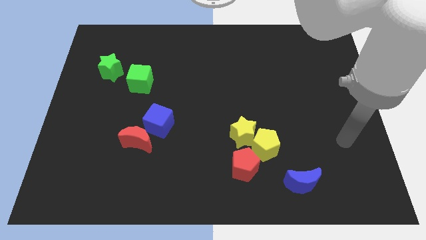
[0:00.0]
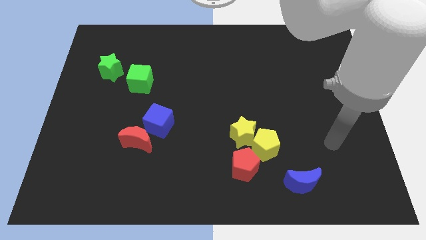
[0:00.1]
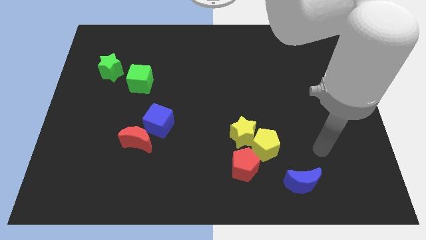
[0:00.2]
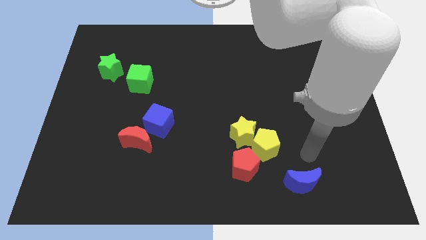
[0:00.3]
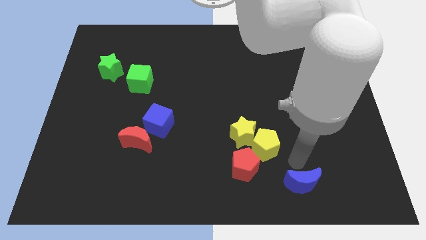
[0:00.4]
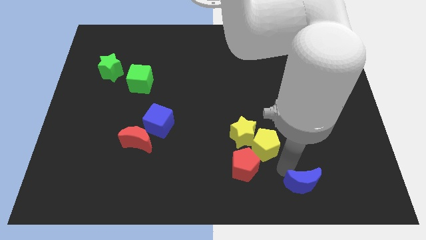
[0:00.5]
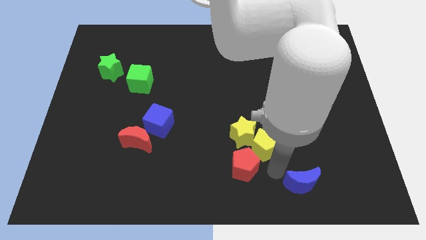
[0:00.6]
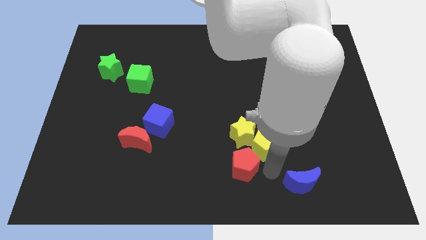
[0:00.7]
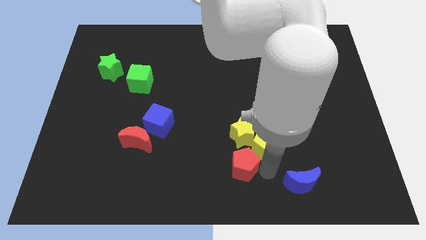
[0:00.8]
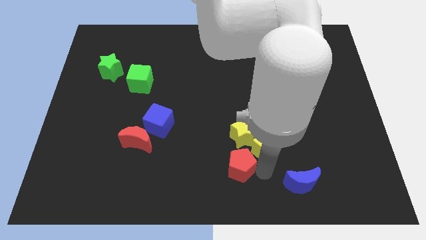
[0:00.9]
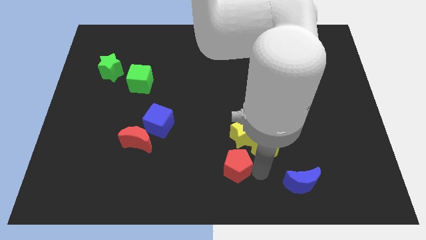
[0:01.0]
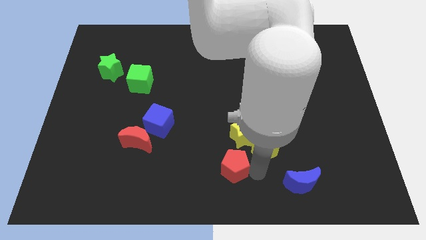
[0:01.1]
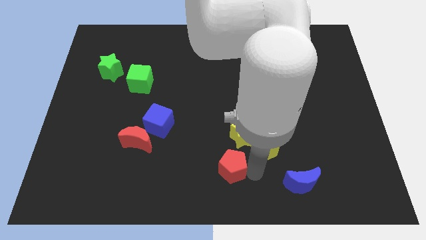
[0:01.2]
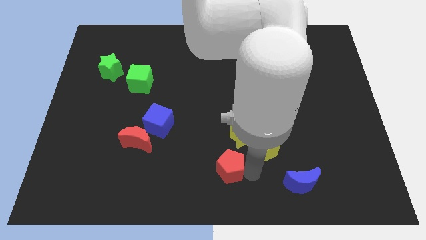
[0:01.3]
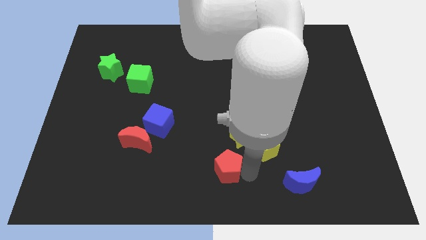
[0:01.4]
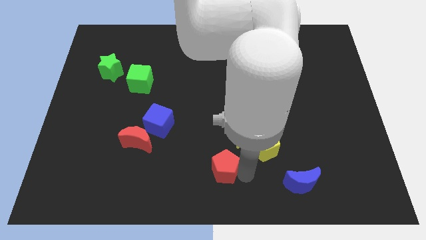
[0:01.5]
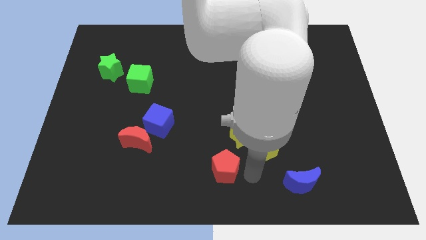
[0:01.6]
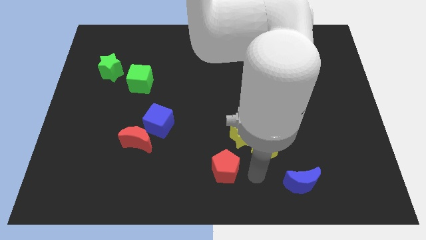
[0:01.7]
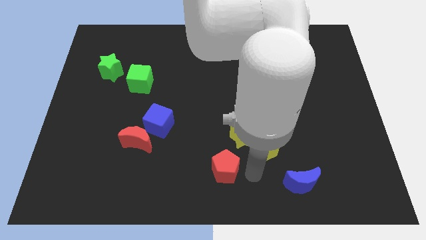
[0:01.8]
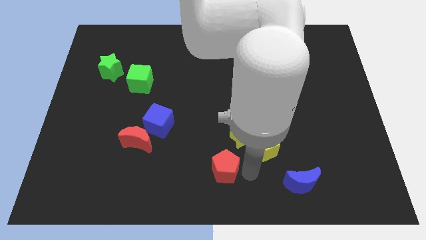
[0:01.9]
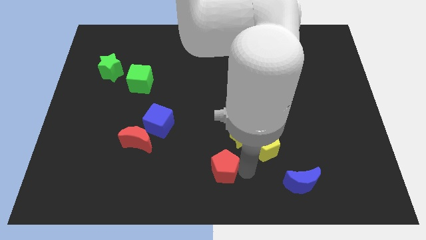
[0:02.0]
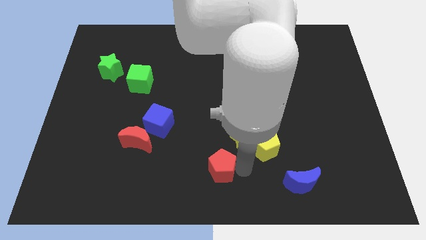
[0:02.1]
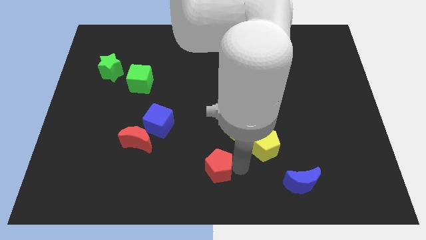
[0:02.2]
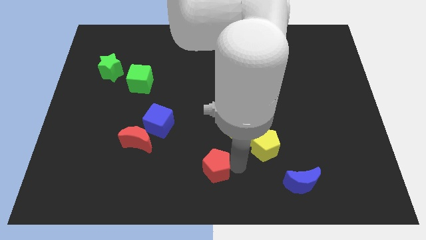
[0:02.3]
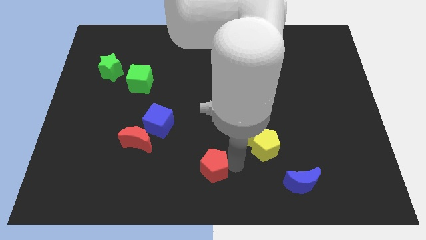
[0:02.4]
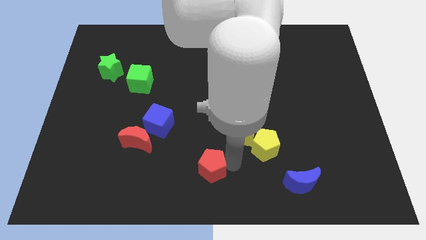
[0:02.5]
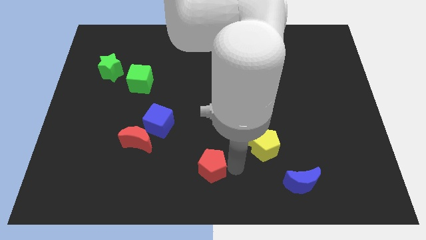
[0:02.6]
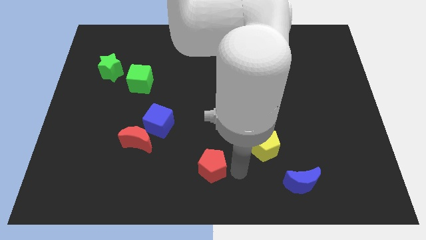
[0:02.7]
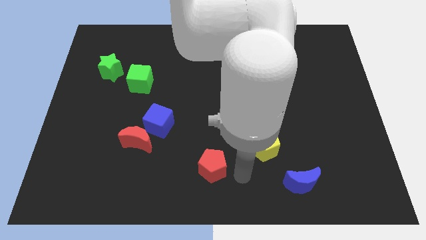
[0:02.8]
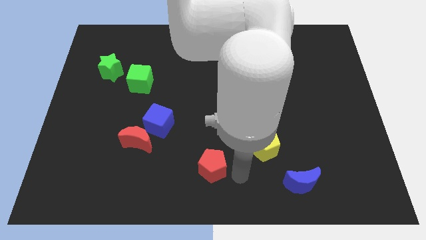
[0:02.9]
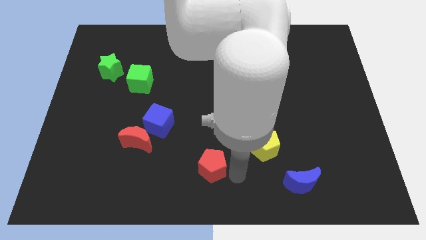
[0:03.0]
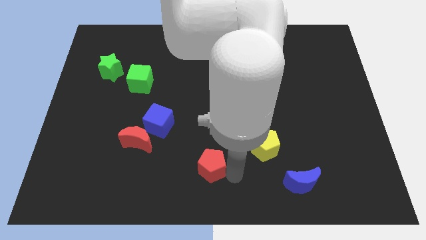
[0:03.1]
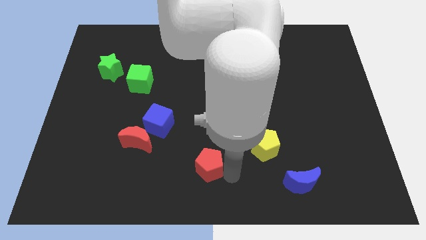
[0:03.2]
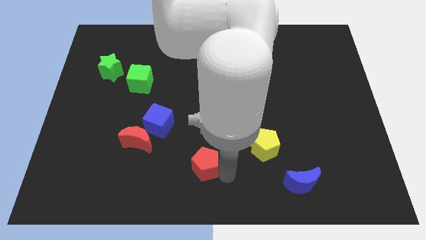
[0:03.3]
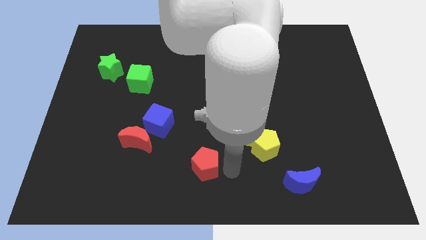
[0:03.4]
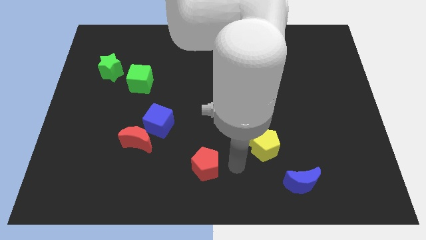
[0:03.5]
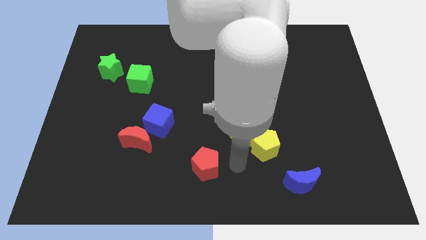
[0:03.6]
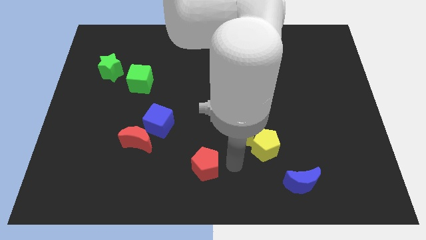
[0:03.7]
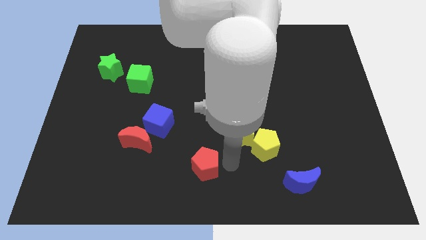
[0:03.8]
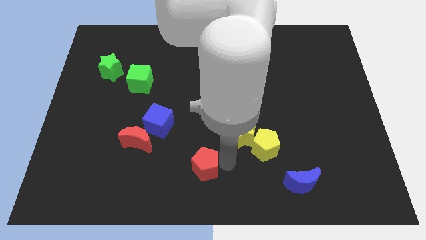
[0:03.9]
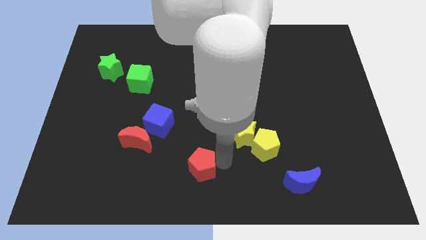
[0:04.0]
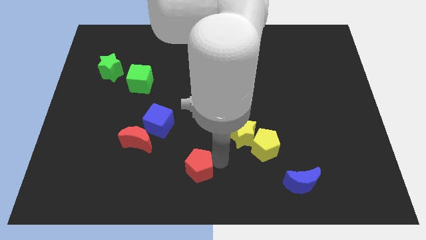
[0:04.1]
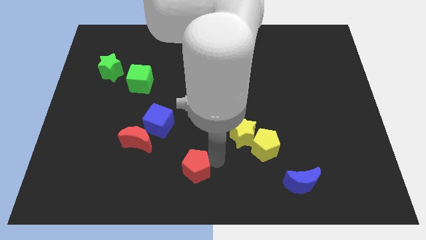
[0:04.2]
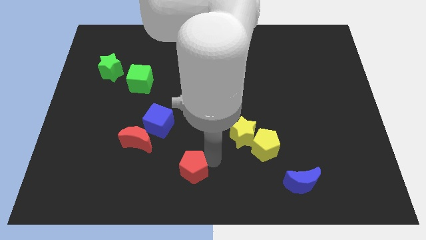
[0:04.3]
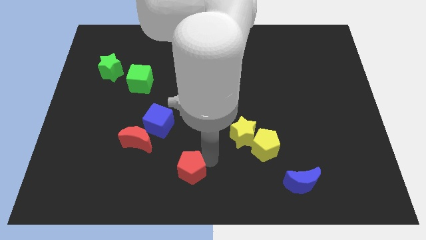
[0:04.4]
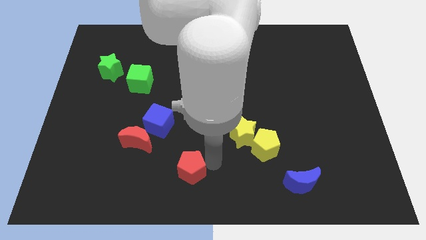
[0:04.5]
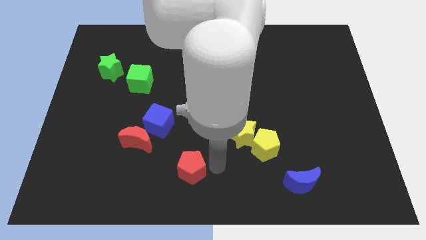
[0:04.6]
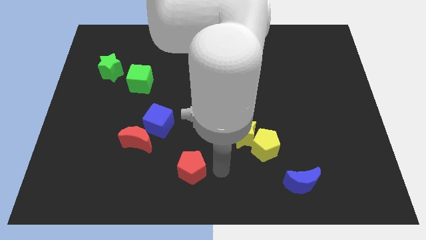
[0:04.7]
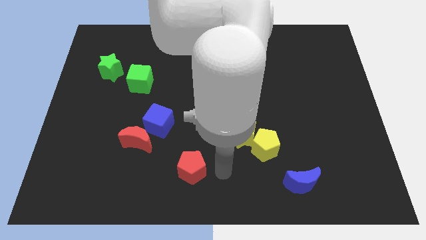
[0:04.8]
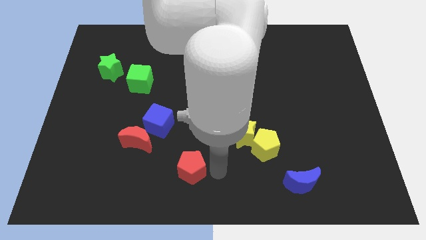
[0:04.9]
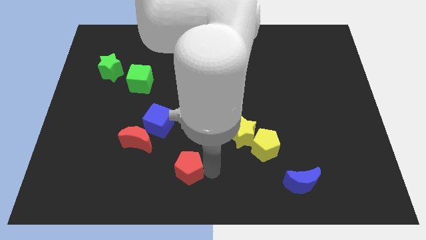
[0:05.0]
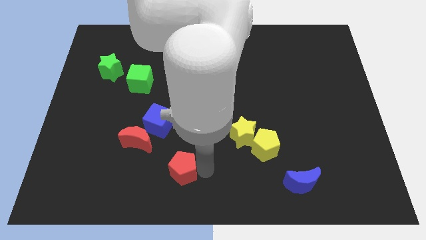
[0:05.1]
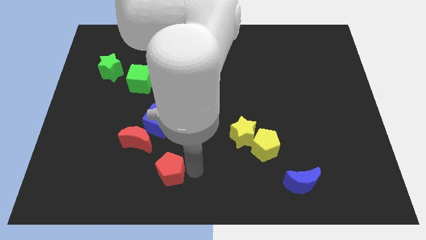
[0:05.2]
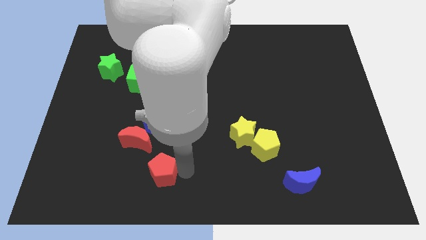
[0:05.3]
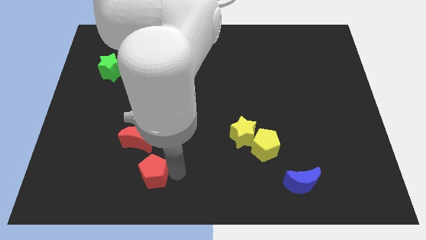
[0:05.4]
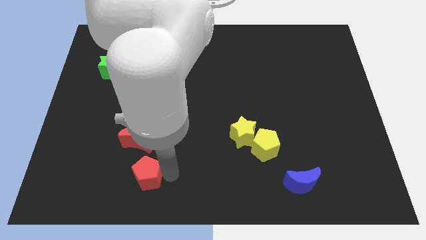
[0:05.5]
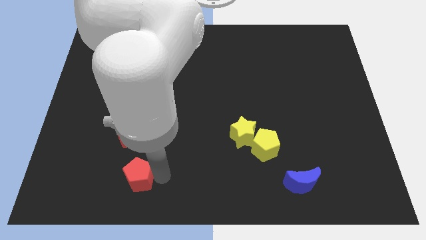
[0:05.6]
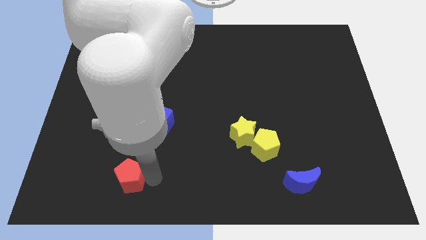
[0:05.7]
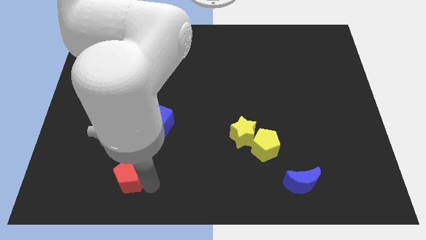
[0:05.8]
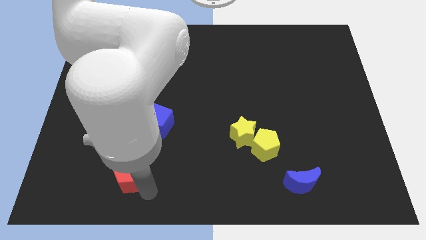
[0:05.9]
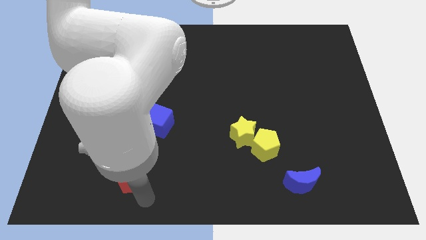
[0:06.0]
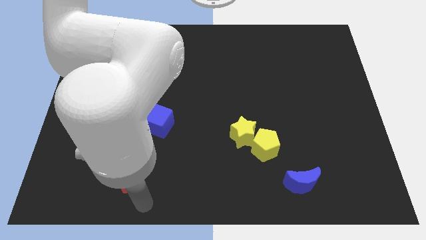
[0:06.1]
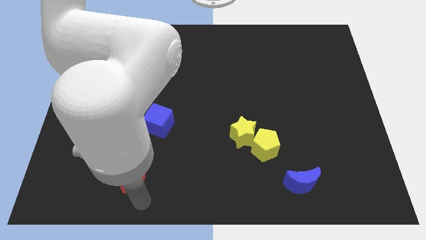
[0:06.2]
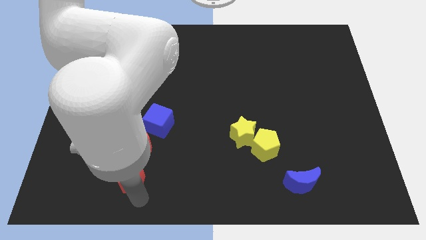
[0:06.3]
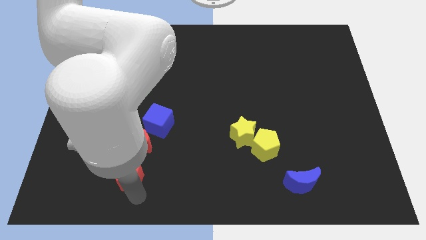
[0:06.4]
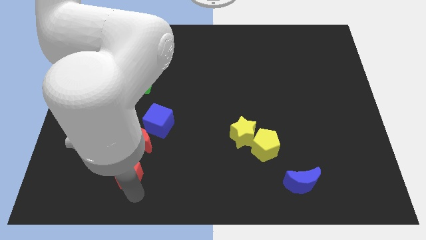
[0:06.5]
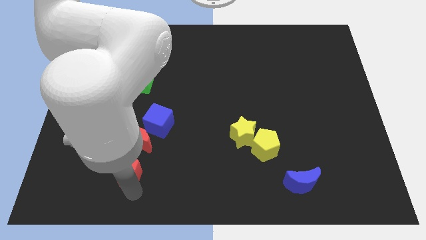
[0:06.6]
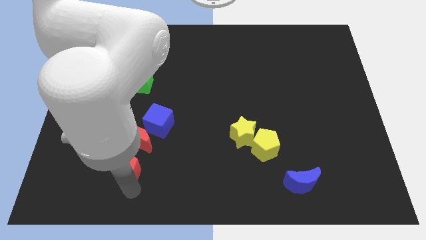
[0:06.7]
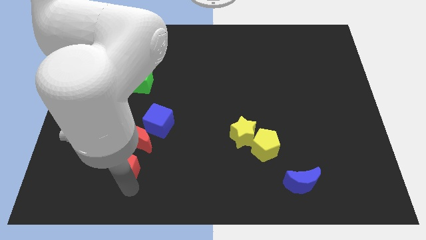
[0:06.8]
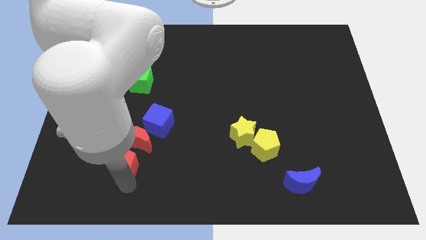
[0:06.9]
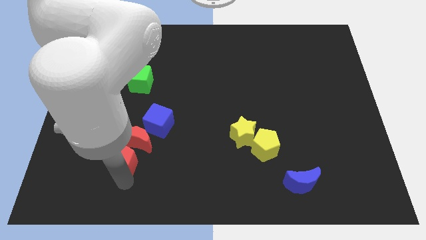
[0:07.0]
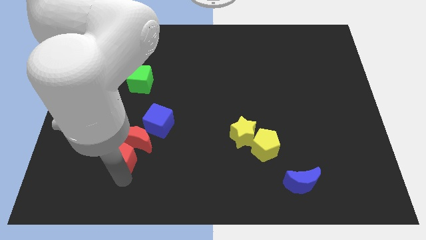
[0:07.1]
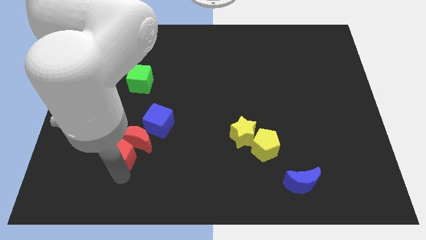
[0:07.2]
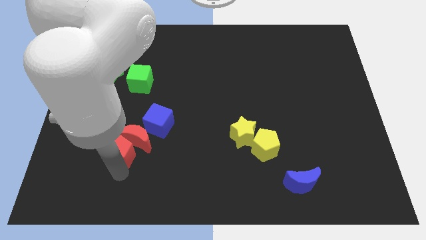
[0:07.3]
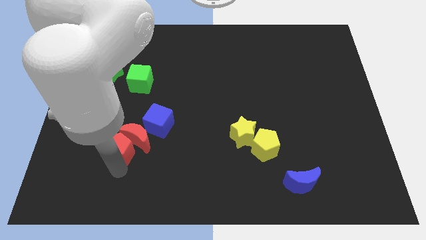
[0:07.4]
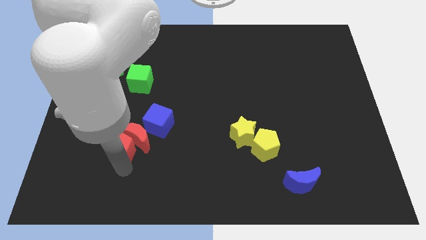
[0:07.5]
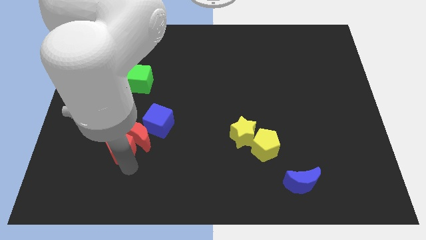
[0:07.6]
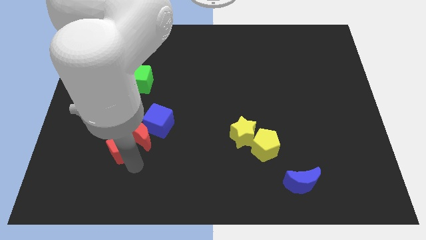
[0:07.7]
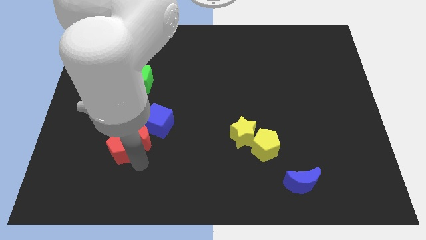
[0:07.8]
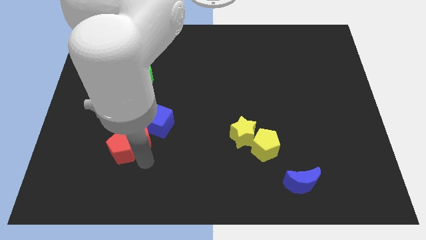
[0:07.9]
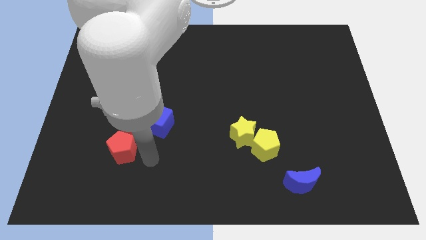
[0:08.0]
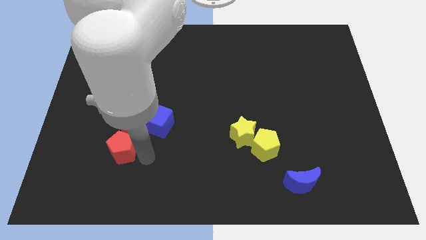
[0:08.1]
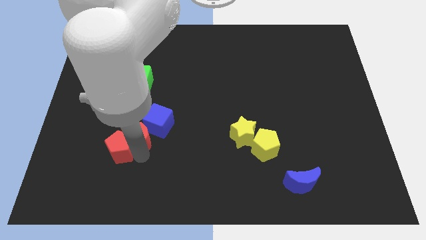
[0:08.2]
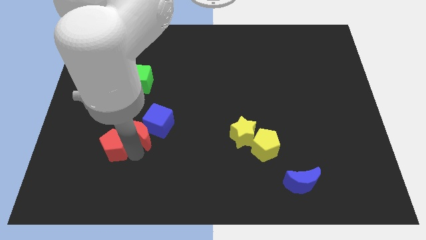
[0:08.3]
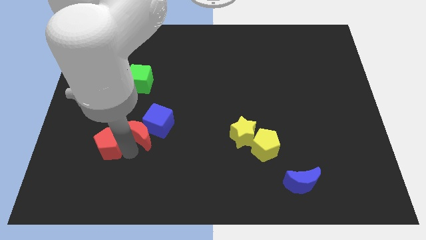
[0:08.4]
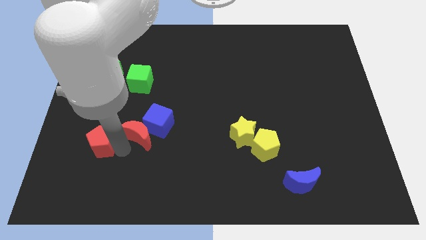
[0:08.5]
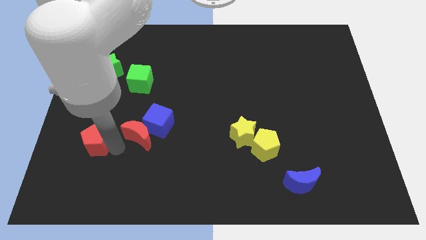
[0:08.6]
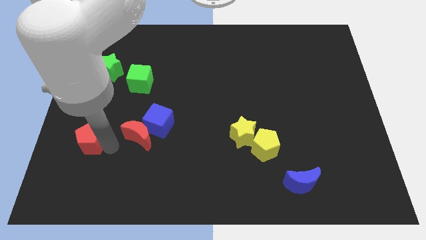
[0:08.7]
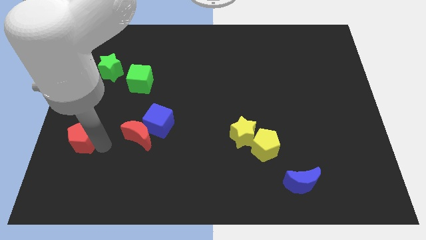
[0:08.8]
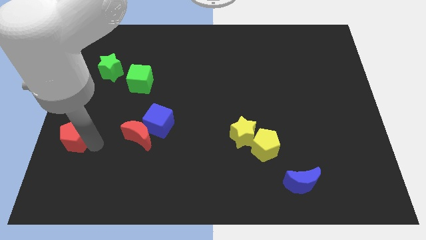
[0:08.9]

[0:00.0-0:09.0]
put the red pentagon to the center left
